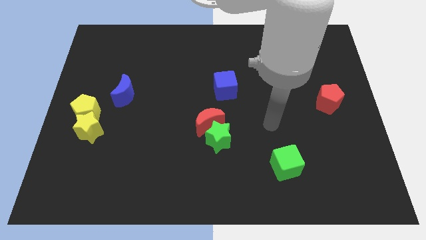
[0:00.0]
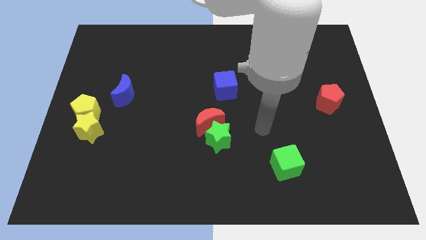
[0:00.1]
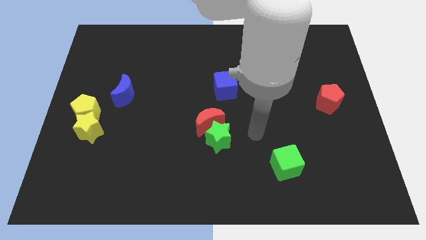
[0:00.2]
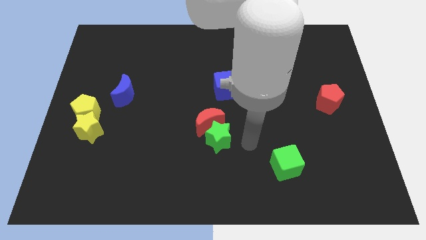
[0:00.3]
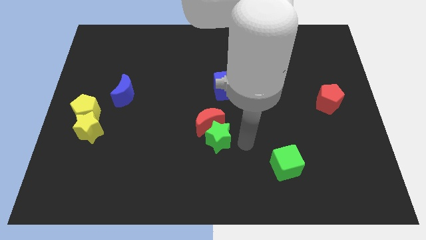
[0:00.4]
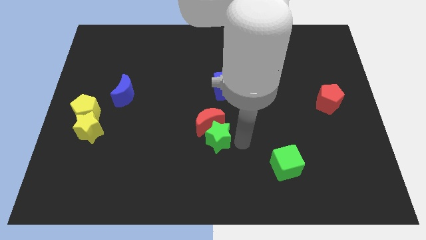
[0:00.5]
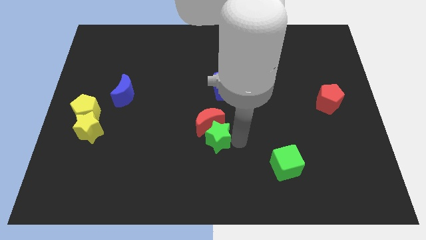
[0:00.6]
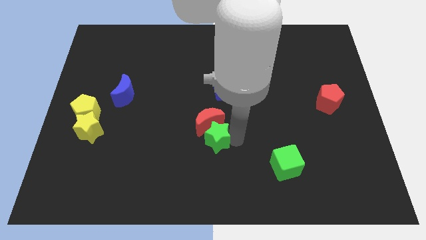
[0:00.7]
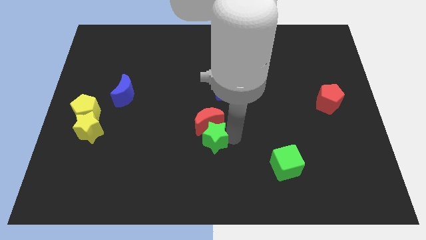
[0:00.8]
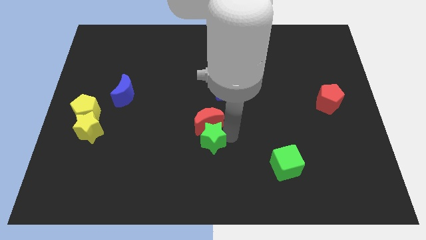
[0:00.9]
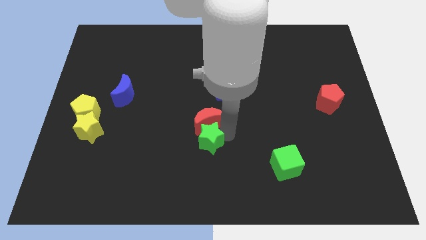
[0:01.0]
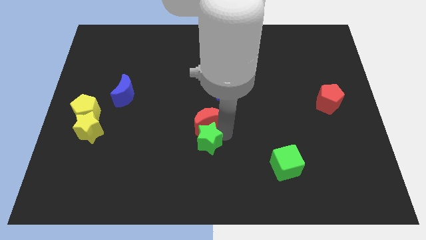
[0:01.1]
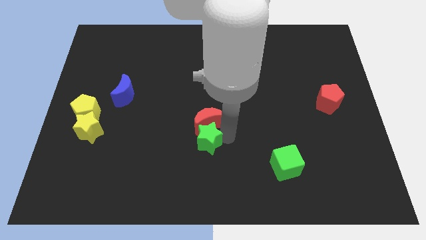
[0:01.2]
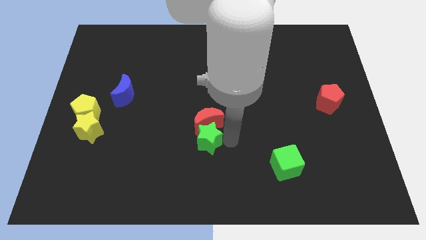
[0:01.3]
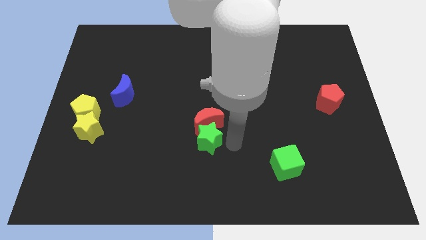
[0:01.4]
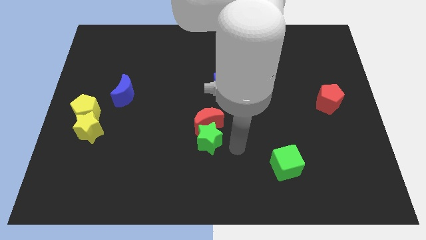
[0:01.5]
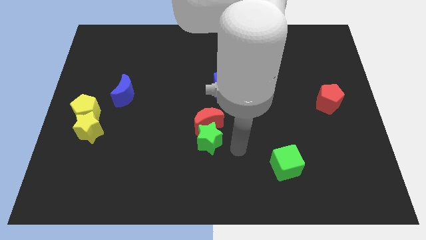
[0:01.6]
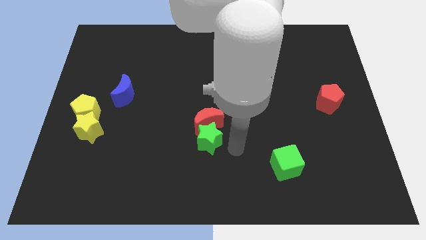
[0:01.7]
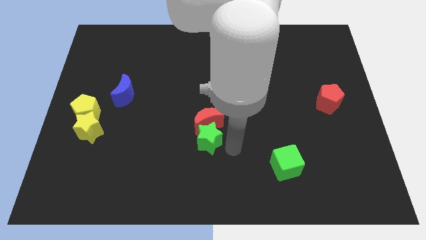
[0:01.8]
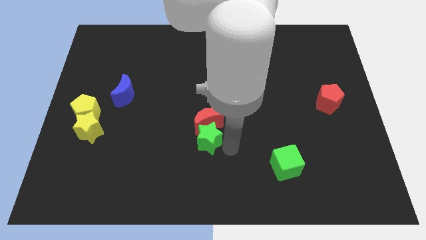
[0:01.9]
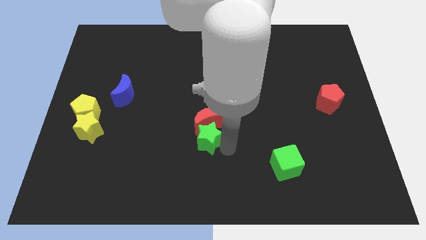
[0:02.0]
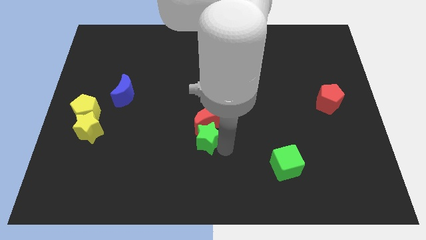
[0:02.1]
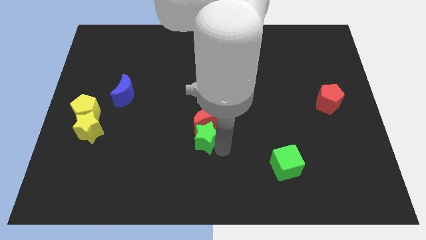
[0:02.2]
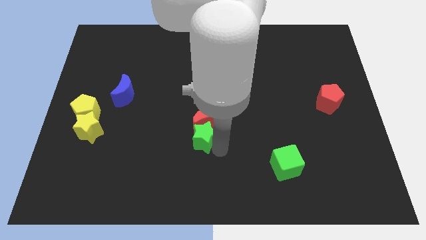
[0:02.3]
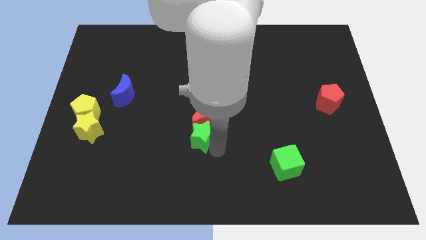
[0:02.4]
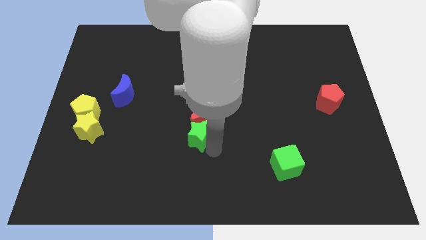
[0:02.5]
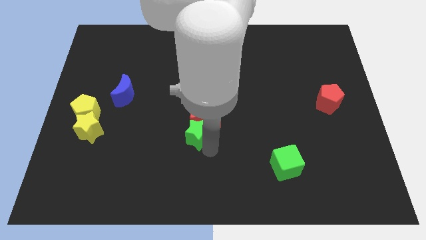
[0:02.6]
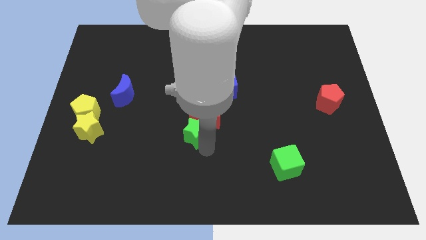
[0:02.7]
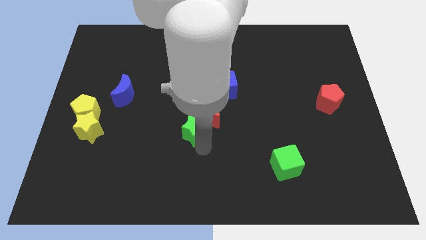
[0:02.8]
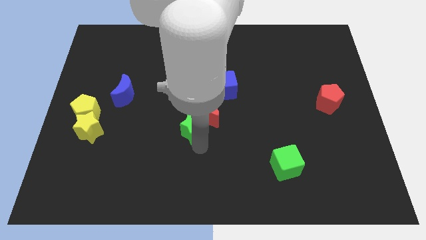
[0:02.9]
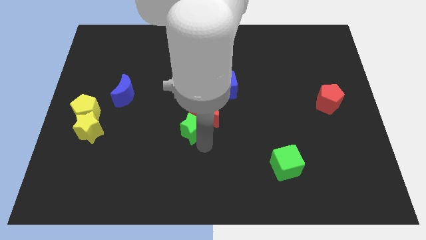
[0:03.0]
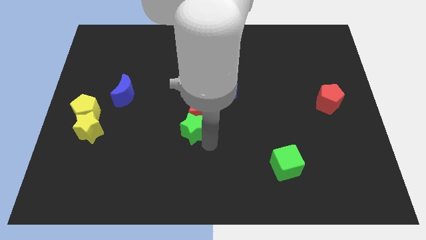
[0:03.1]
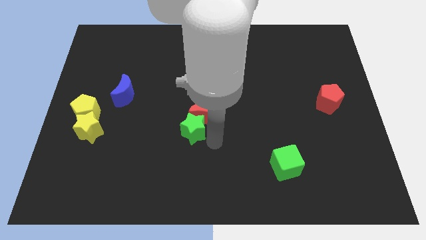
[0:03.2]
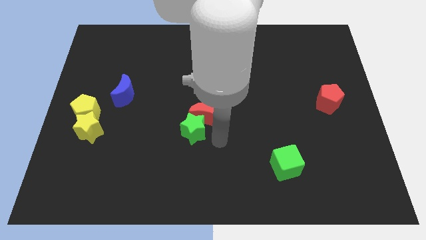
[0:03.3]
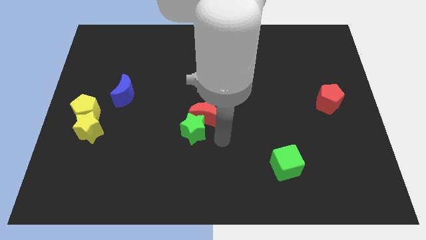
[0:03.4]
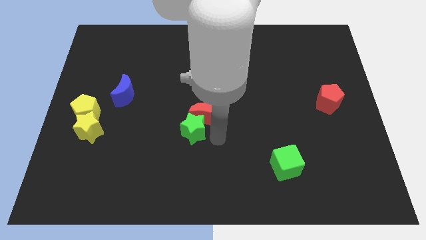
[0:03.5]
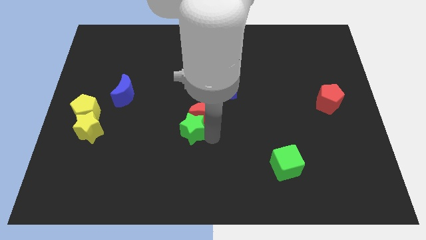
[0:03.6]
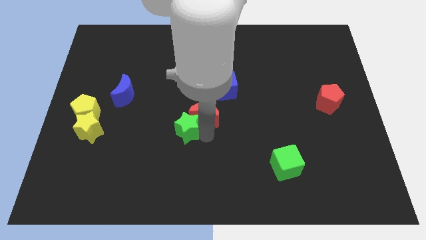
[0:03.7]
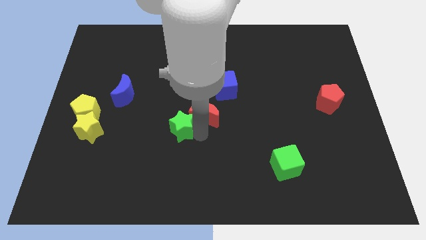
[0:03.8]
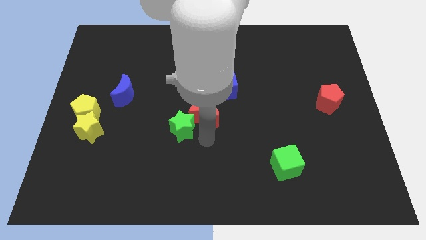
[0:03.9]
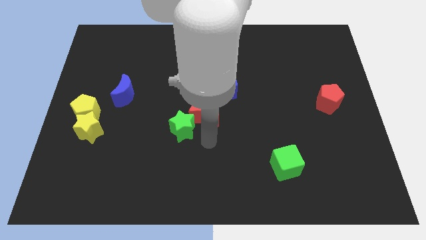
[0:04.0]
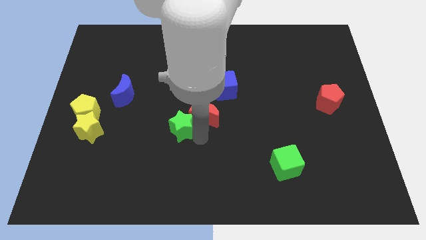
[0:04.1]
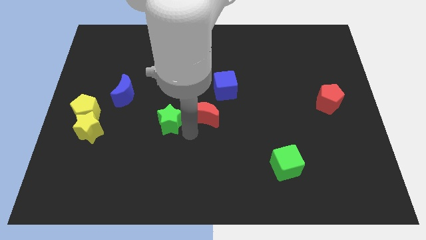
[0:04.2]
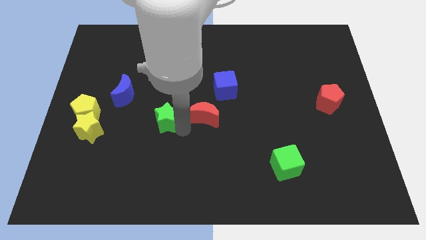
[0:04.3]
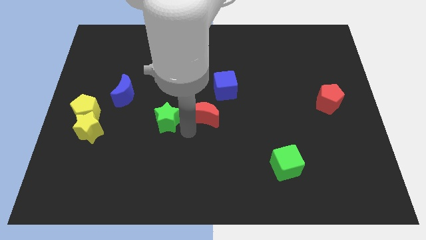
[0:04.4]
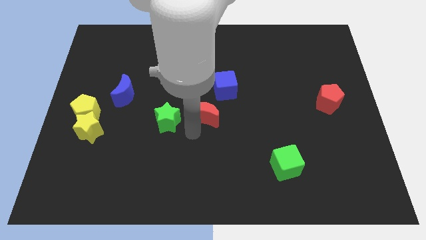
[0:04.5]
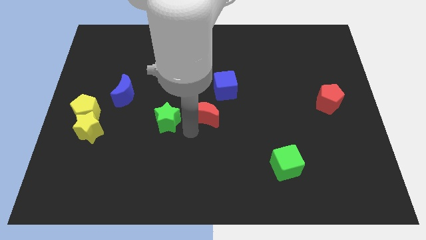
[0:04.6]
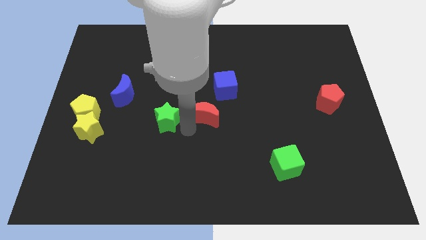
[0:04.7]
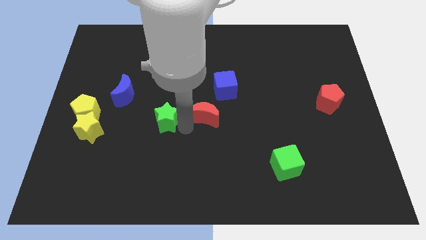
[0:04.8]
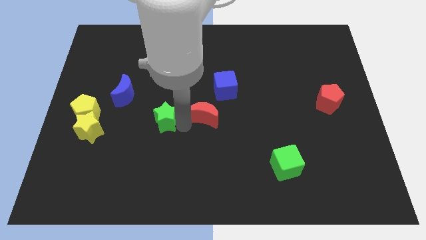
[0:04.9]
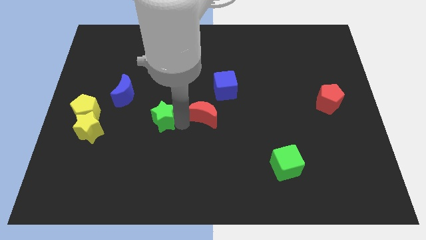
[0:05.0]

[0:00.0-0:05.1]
move the green star to the bottom right of the blue moon

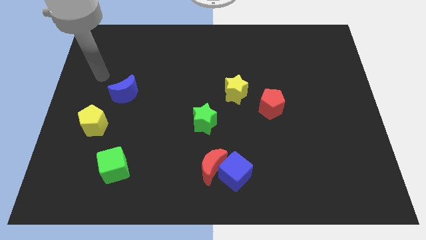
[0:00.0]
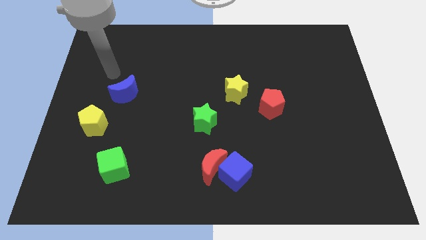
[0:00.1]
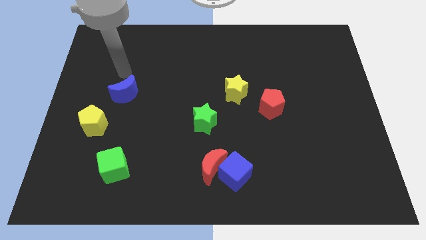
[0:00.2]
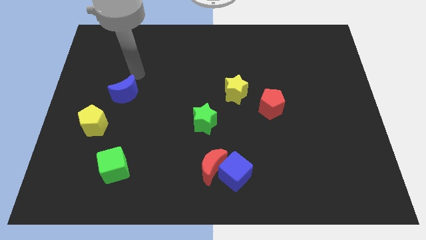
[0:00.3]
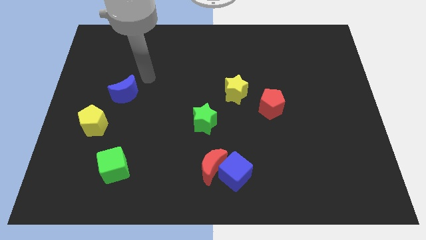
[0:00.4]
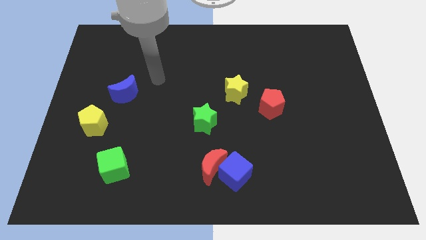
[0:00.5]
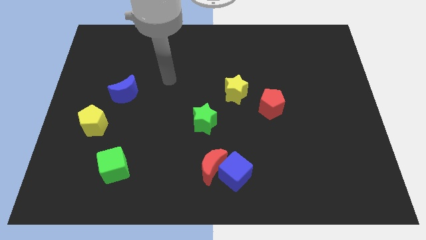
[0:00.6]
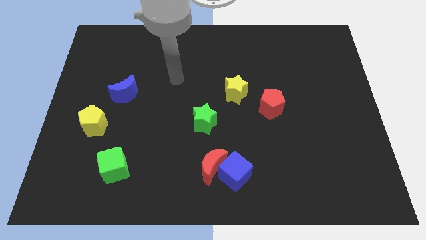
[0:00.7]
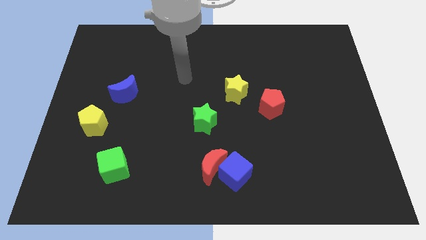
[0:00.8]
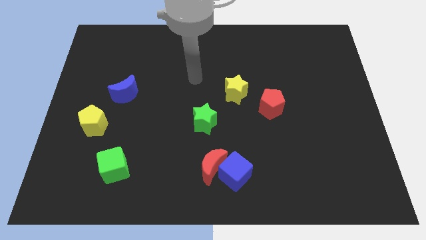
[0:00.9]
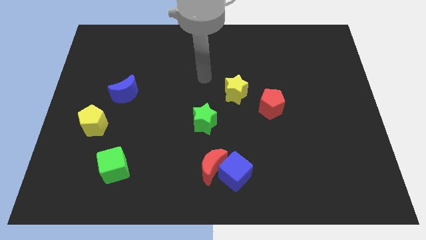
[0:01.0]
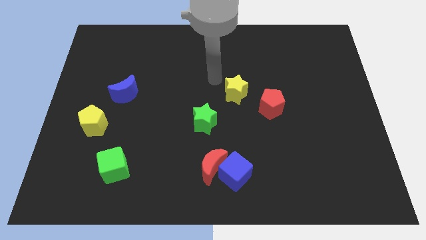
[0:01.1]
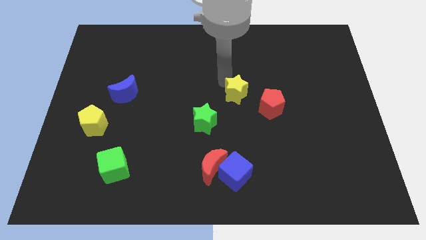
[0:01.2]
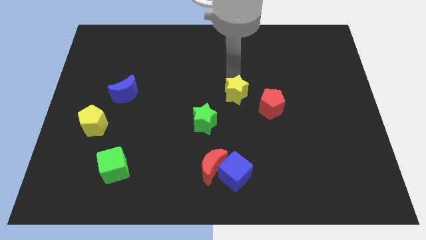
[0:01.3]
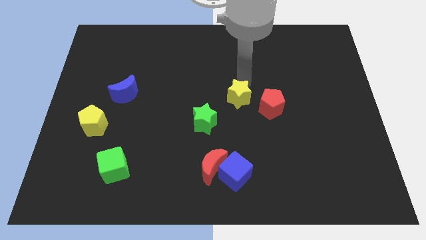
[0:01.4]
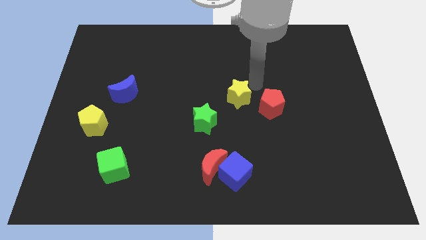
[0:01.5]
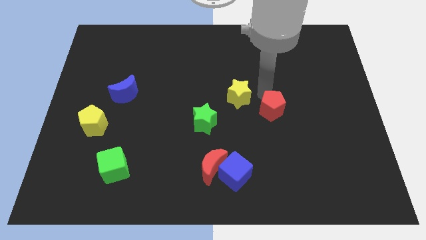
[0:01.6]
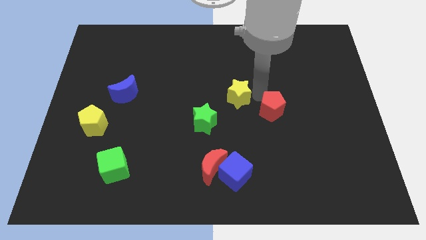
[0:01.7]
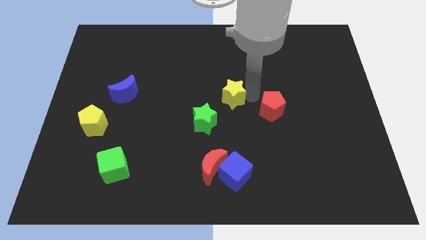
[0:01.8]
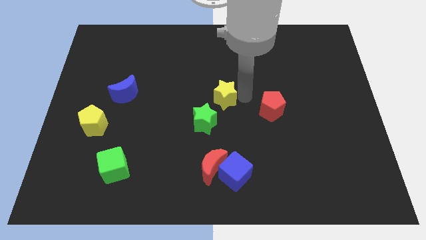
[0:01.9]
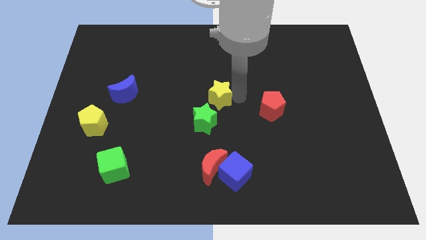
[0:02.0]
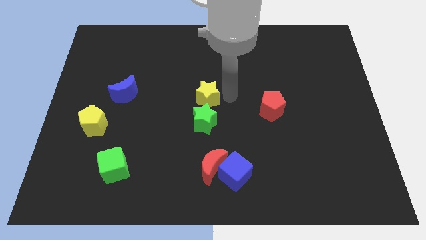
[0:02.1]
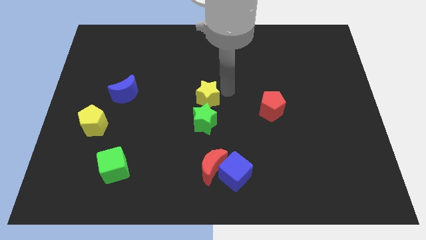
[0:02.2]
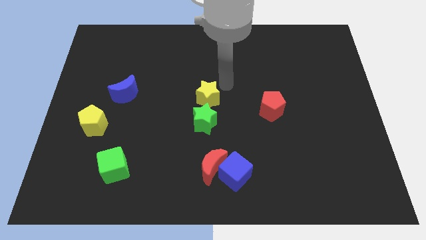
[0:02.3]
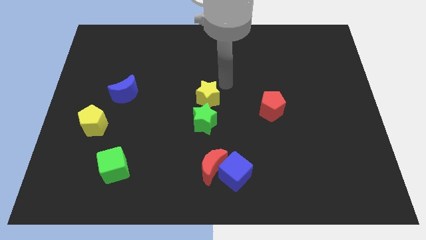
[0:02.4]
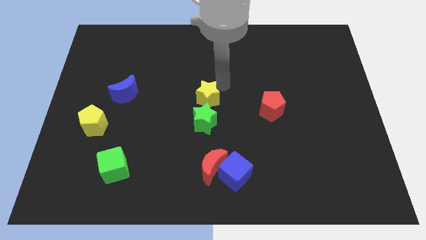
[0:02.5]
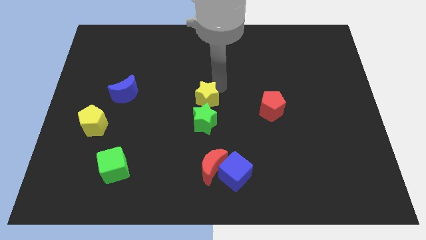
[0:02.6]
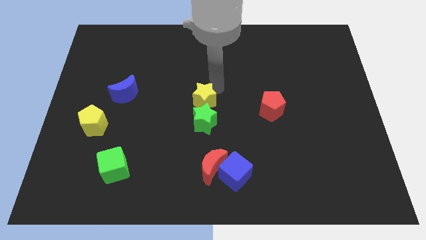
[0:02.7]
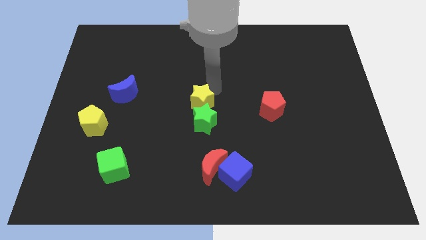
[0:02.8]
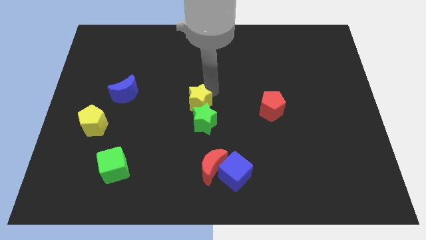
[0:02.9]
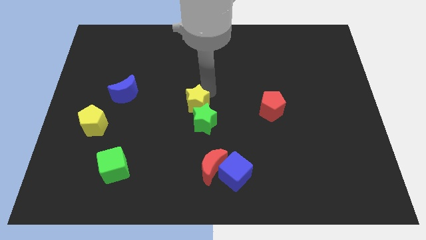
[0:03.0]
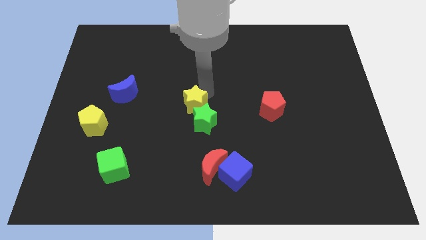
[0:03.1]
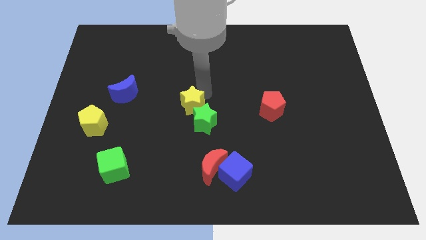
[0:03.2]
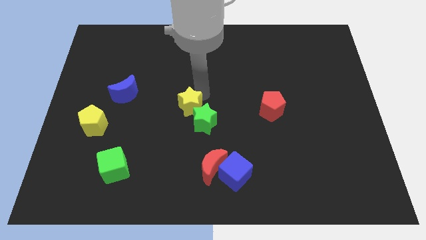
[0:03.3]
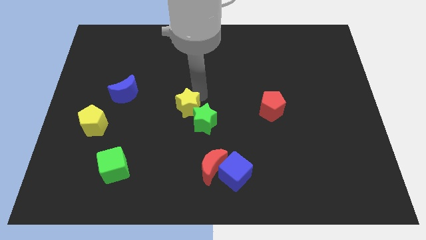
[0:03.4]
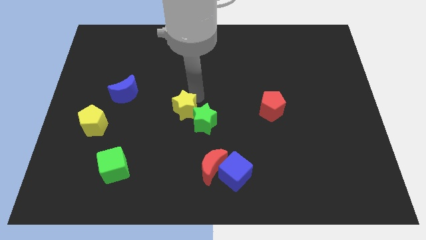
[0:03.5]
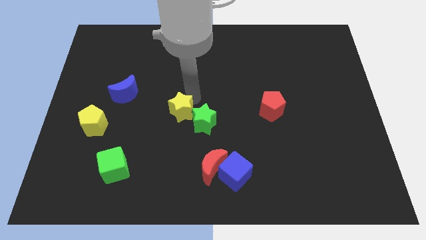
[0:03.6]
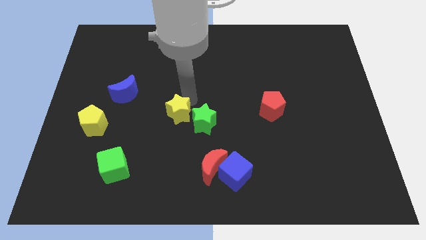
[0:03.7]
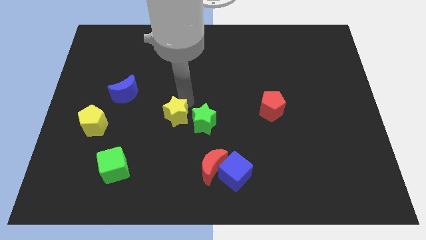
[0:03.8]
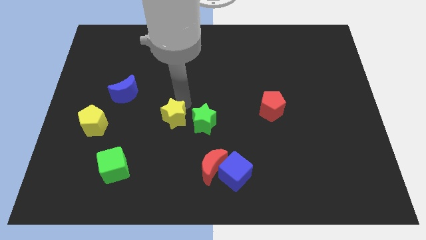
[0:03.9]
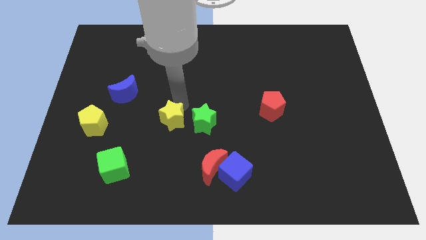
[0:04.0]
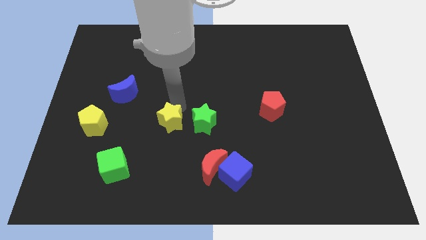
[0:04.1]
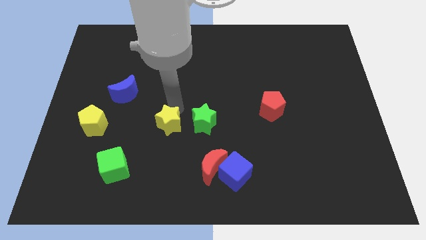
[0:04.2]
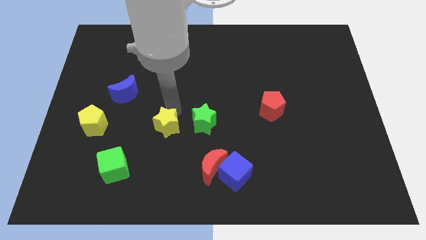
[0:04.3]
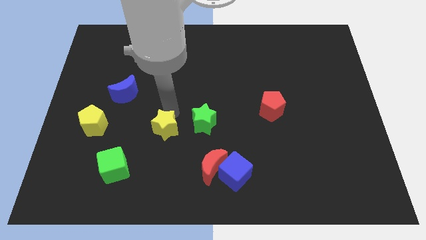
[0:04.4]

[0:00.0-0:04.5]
move the yellow star to the bottom left side of the green star
